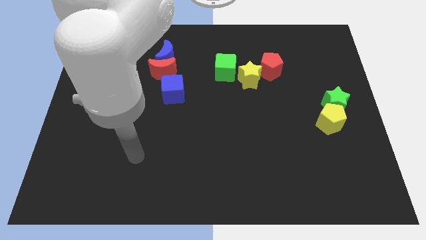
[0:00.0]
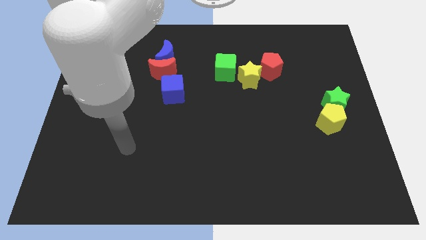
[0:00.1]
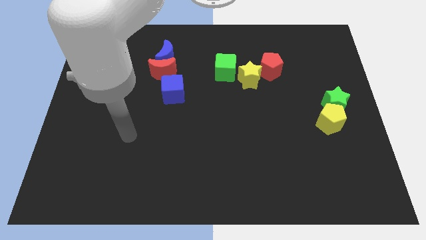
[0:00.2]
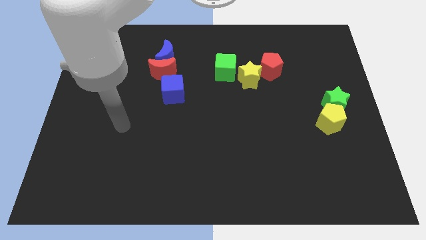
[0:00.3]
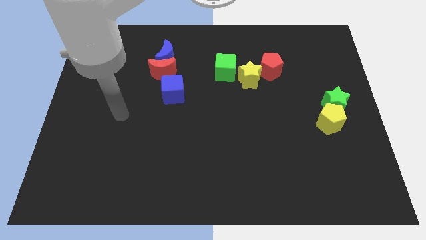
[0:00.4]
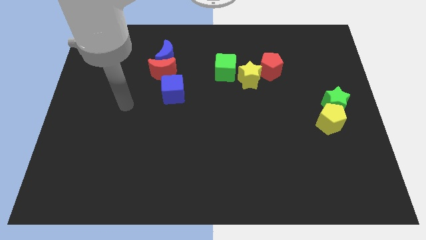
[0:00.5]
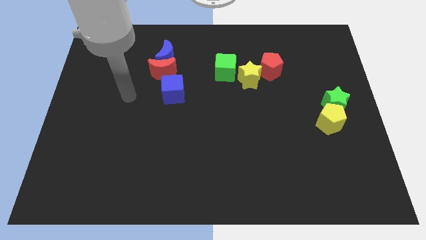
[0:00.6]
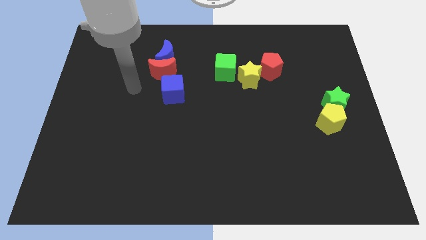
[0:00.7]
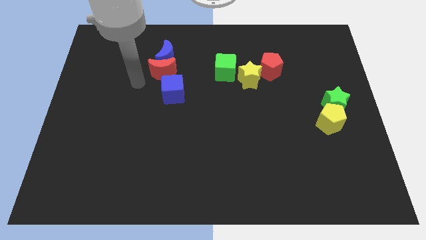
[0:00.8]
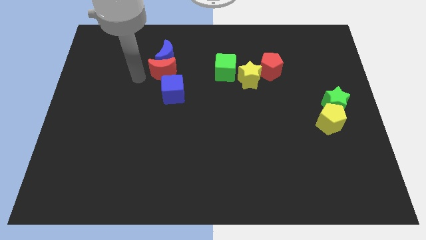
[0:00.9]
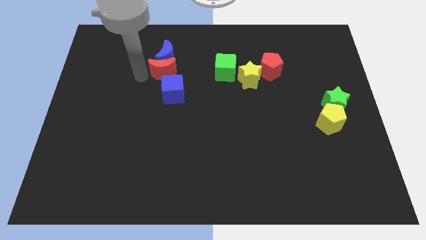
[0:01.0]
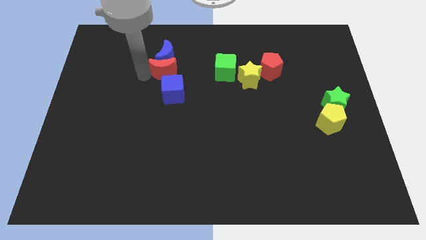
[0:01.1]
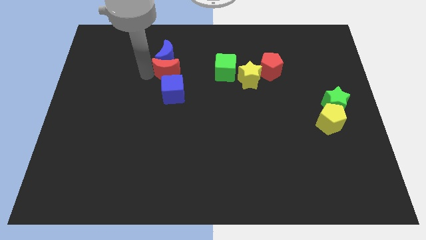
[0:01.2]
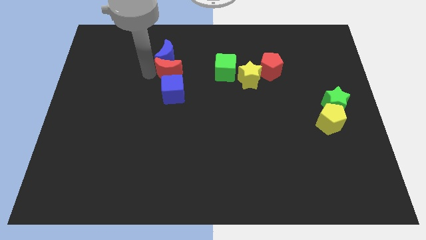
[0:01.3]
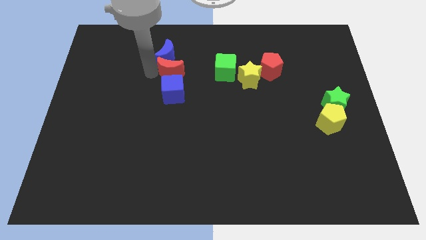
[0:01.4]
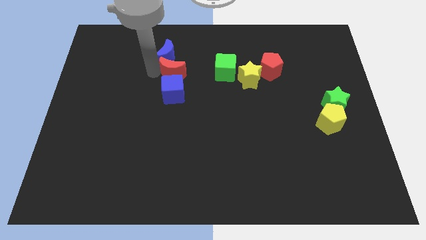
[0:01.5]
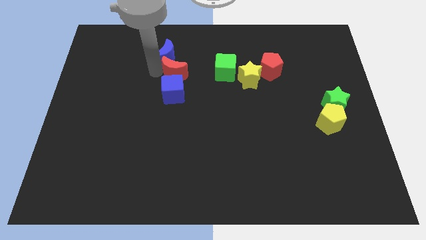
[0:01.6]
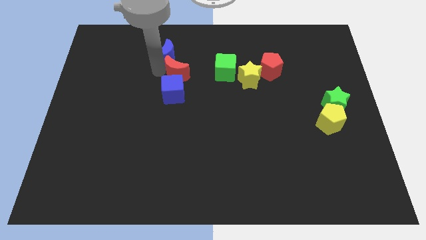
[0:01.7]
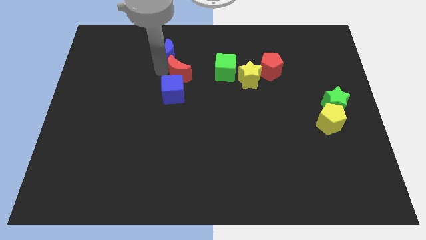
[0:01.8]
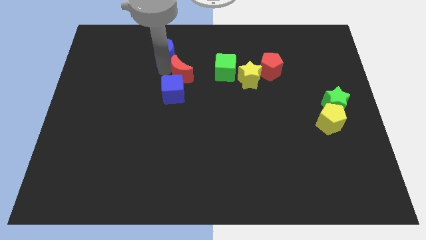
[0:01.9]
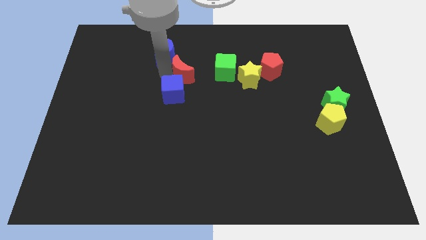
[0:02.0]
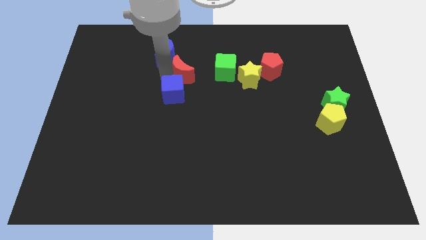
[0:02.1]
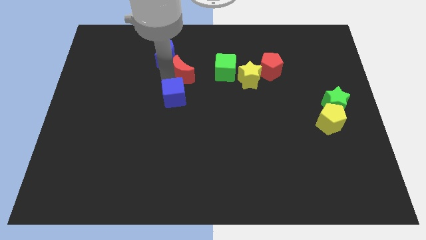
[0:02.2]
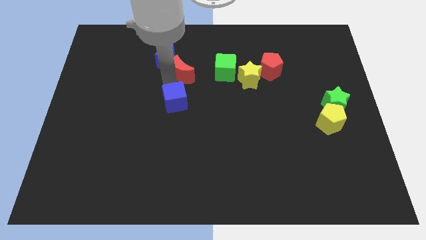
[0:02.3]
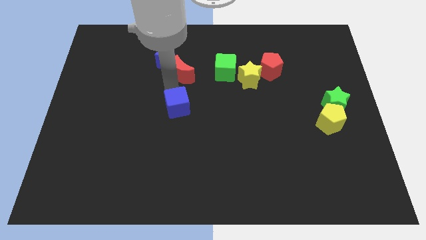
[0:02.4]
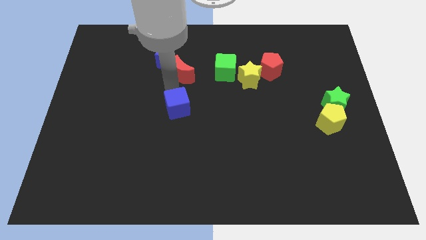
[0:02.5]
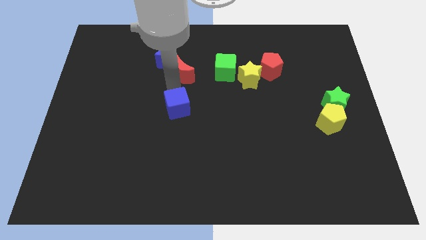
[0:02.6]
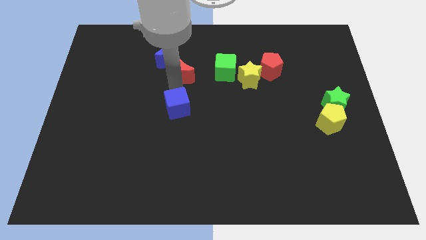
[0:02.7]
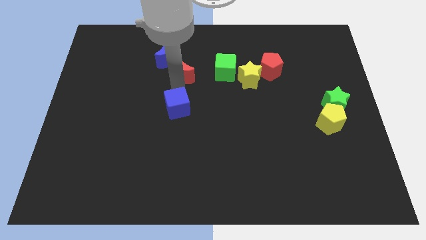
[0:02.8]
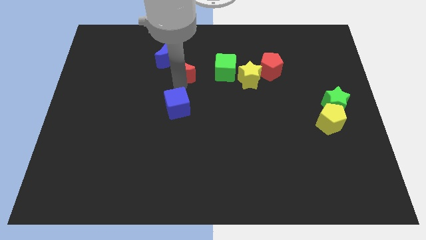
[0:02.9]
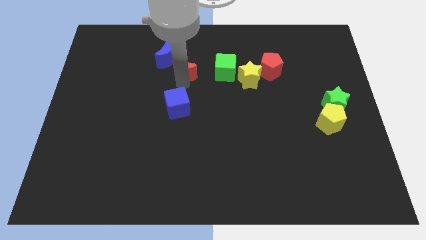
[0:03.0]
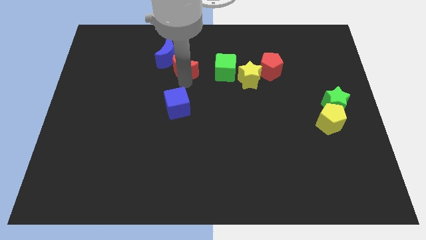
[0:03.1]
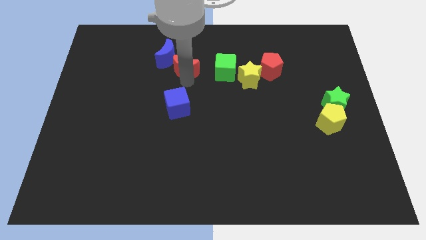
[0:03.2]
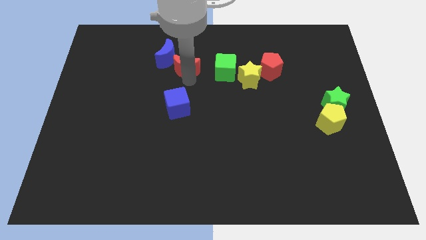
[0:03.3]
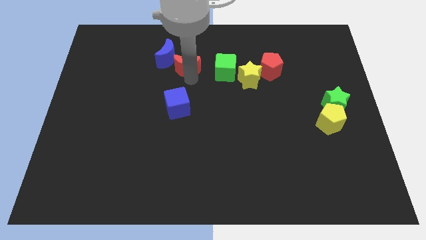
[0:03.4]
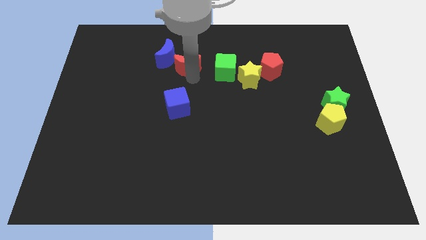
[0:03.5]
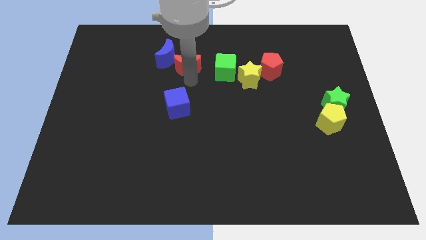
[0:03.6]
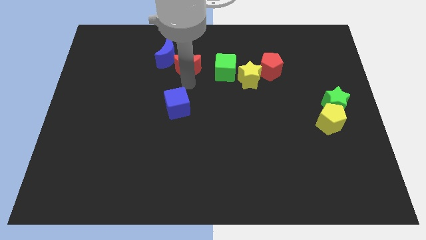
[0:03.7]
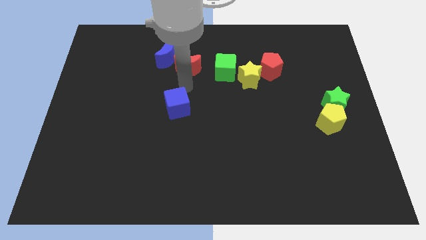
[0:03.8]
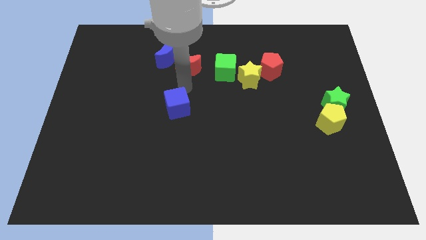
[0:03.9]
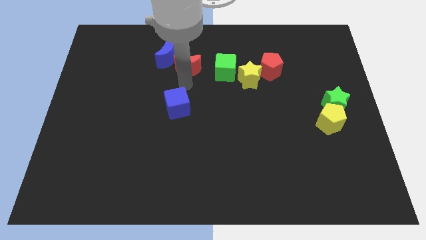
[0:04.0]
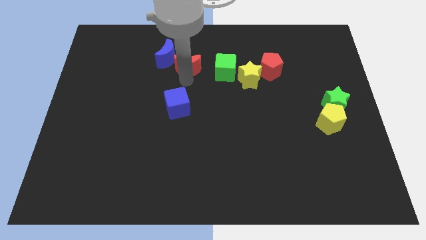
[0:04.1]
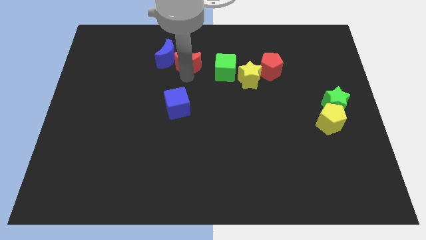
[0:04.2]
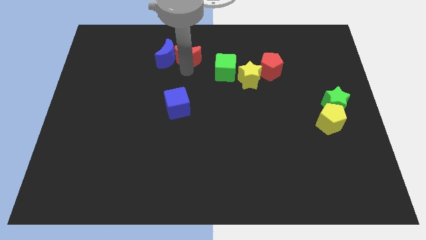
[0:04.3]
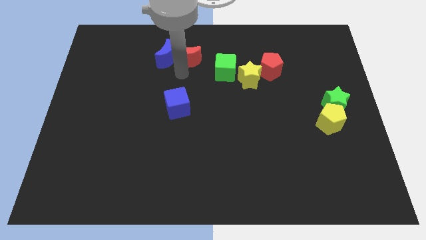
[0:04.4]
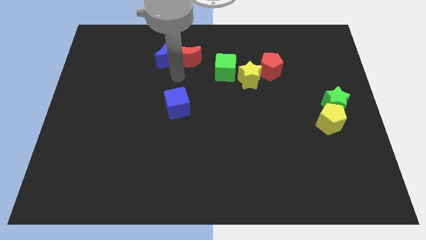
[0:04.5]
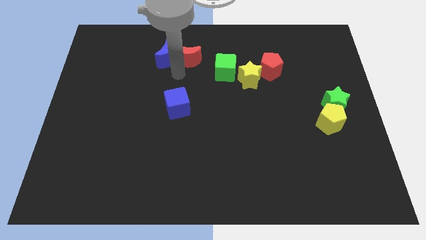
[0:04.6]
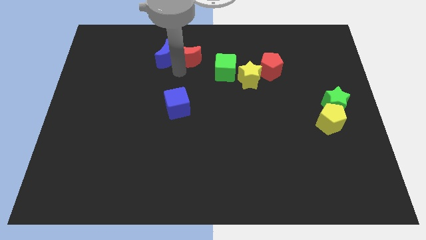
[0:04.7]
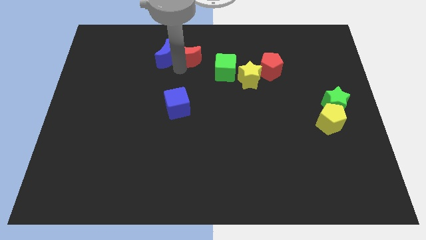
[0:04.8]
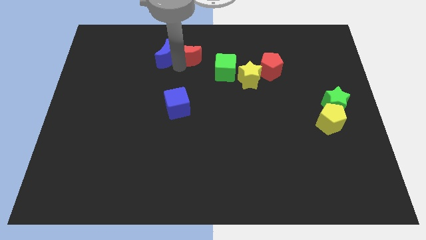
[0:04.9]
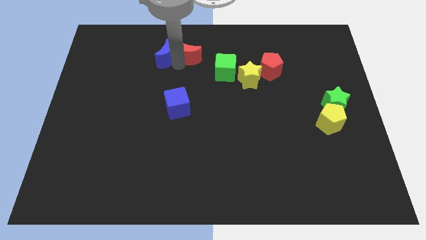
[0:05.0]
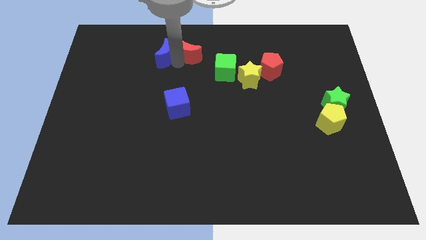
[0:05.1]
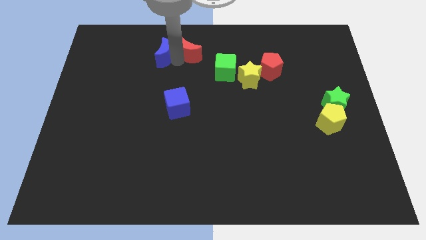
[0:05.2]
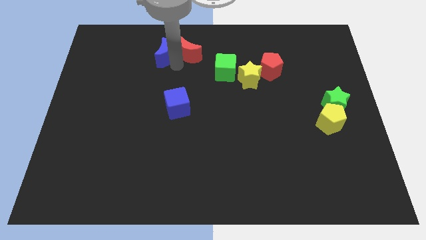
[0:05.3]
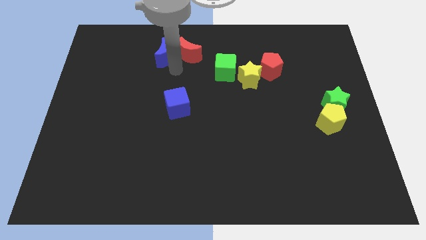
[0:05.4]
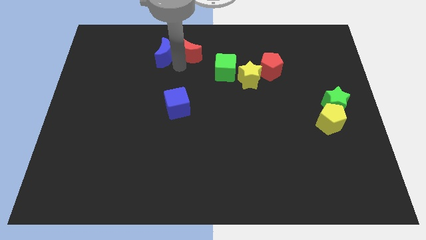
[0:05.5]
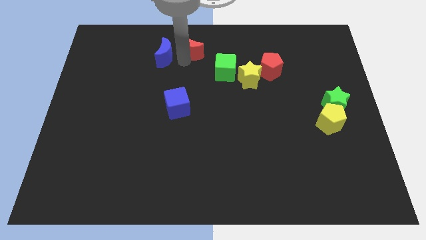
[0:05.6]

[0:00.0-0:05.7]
push the red moon to the top

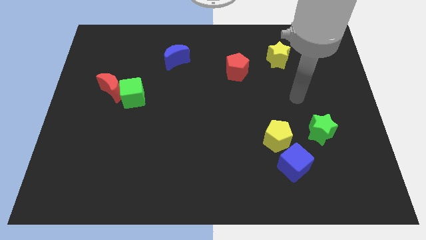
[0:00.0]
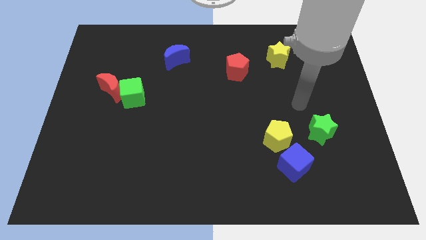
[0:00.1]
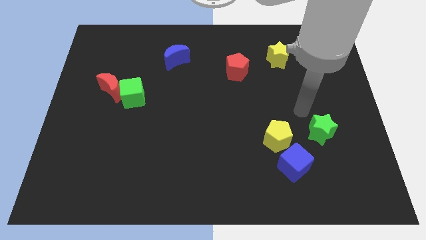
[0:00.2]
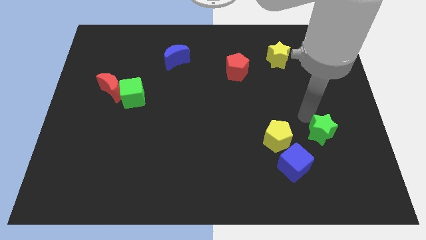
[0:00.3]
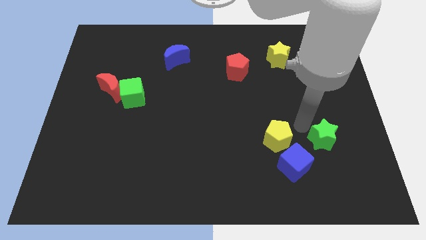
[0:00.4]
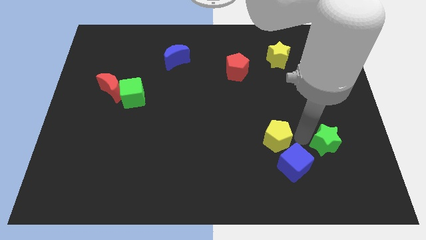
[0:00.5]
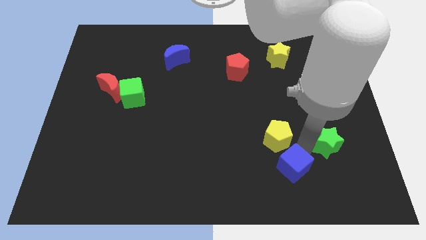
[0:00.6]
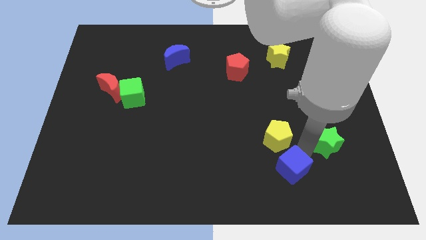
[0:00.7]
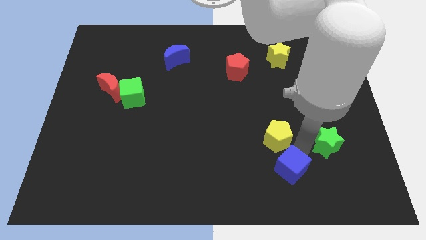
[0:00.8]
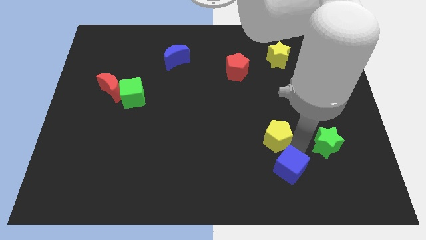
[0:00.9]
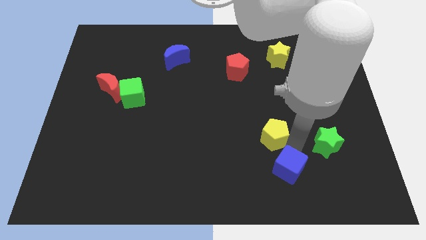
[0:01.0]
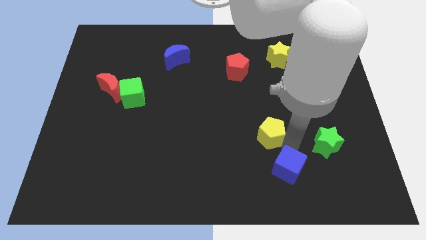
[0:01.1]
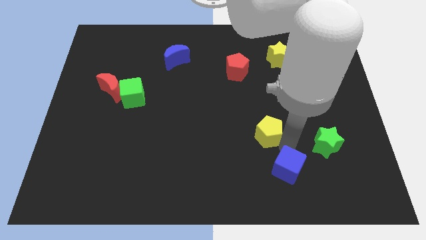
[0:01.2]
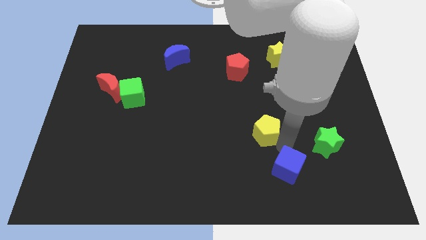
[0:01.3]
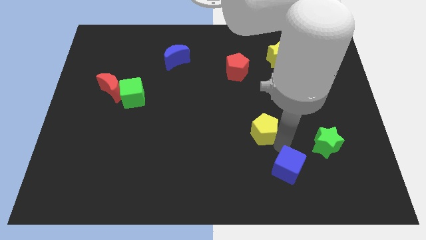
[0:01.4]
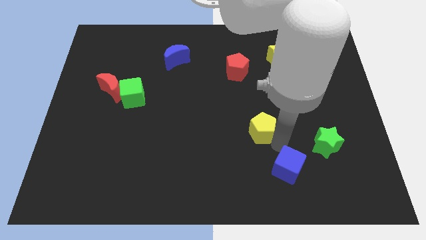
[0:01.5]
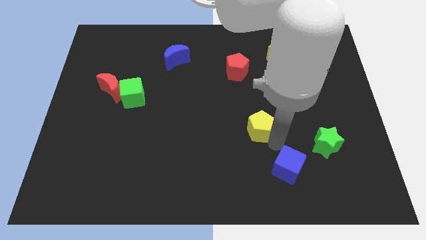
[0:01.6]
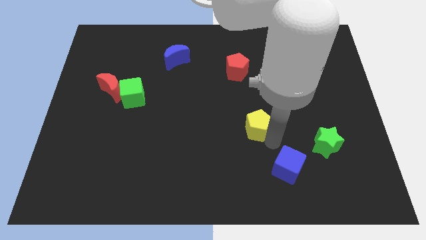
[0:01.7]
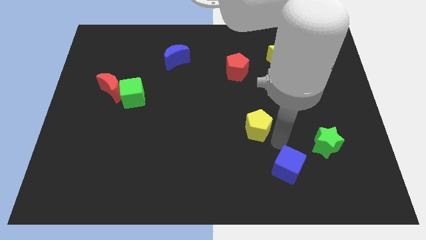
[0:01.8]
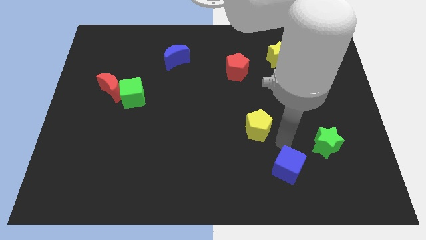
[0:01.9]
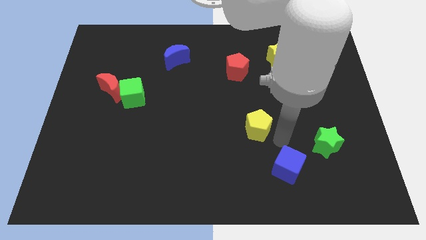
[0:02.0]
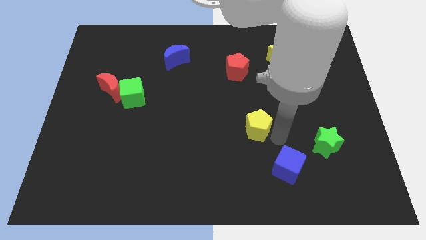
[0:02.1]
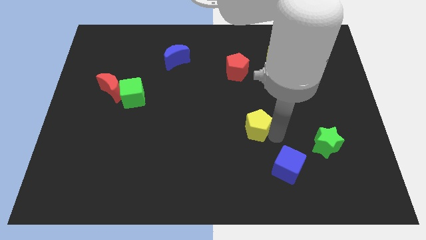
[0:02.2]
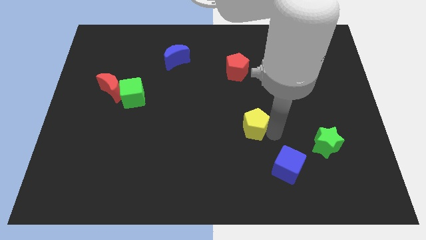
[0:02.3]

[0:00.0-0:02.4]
push the yellow pentagon to the middle
